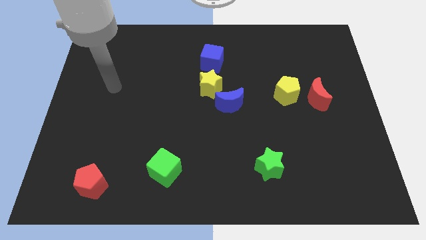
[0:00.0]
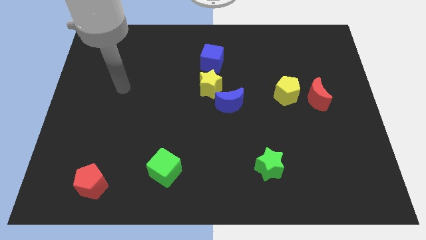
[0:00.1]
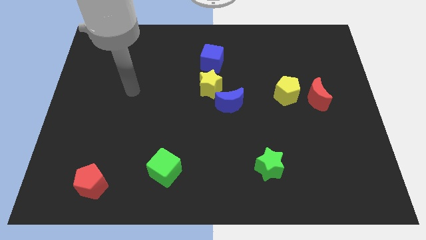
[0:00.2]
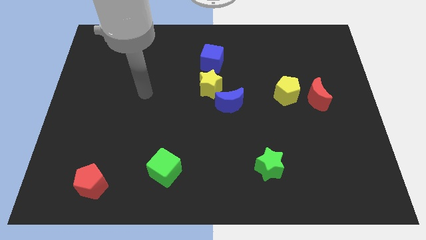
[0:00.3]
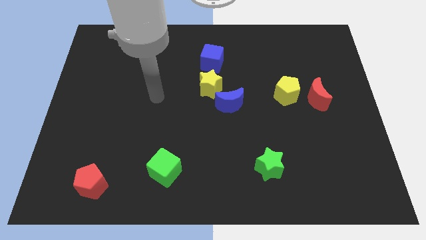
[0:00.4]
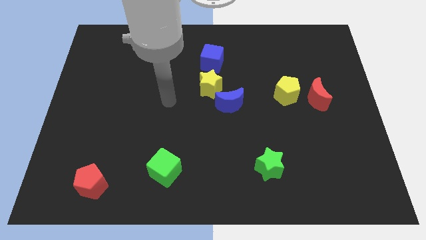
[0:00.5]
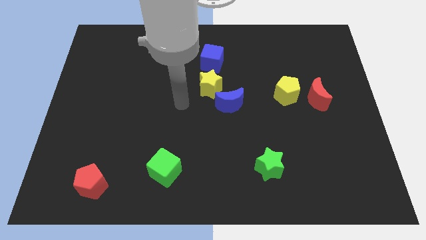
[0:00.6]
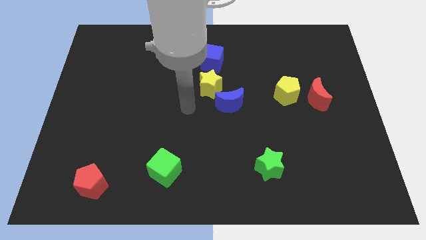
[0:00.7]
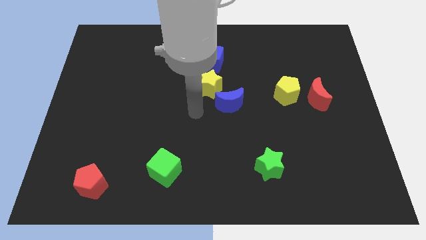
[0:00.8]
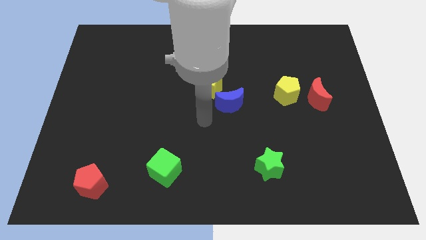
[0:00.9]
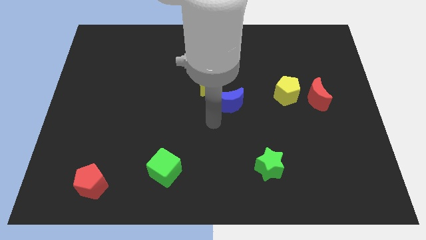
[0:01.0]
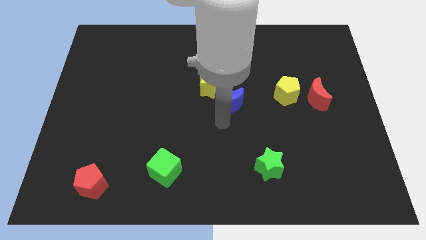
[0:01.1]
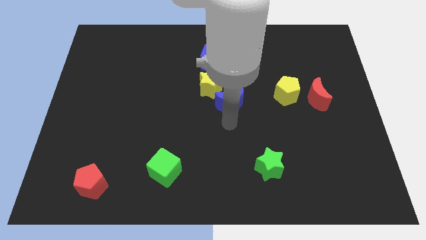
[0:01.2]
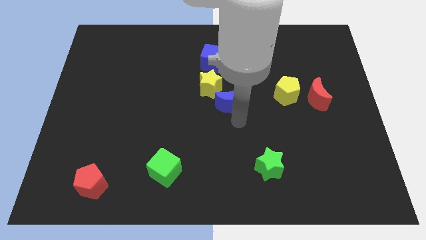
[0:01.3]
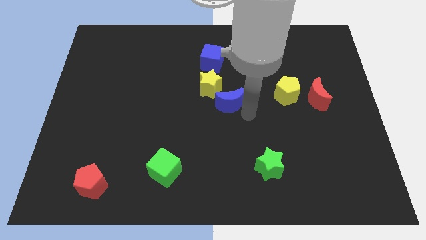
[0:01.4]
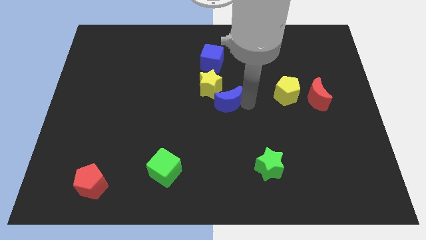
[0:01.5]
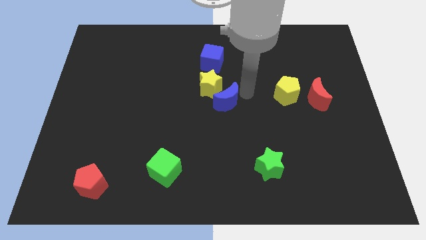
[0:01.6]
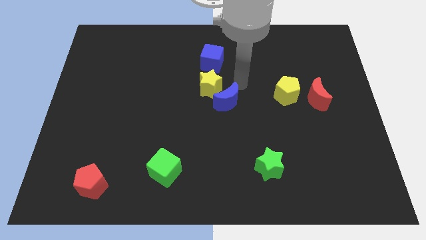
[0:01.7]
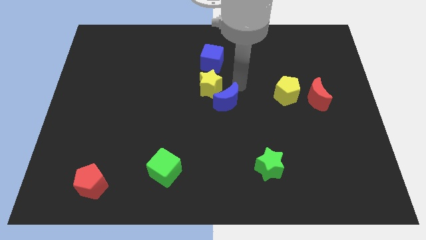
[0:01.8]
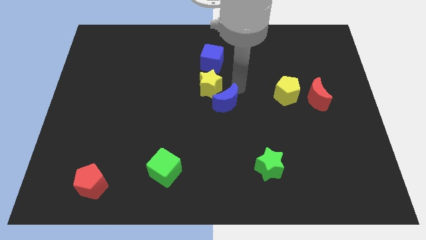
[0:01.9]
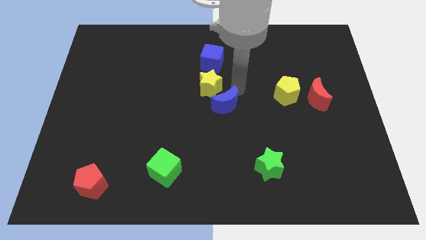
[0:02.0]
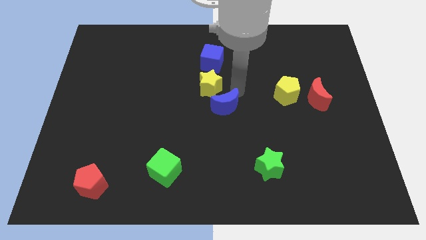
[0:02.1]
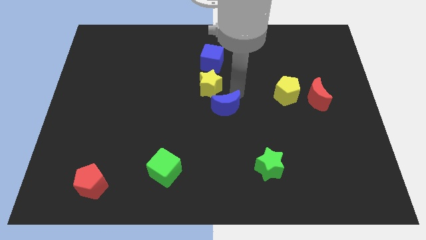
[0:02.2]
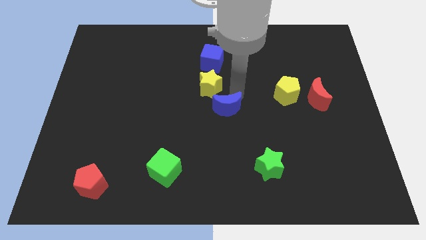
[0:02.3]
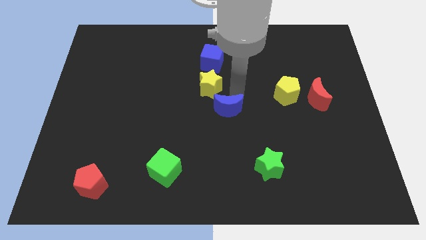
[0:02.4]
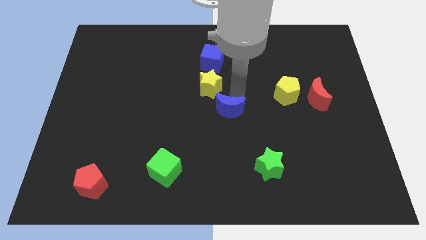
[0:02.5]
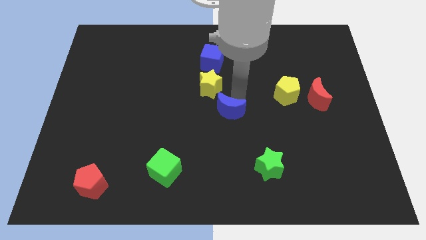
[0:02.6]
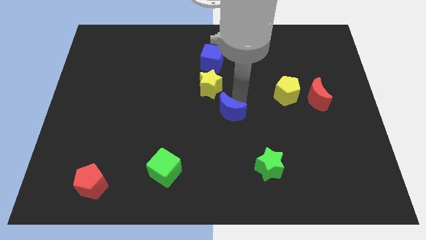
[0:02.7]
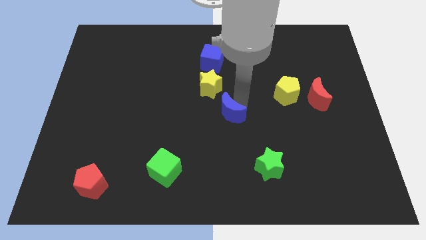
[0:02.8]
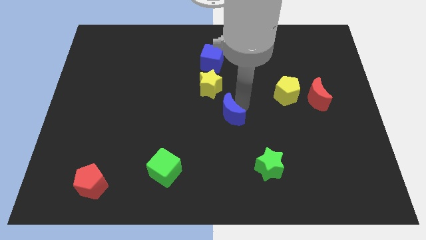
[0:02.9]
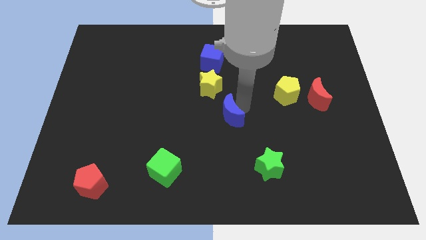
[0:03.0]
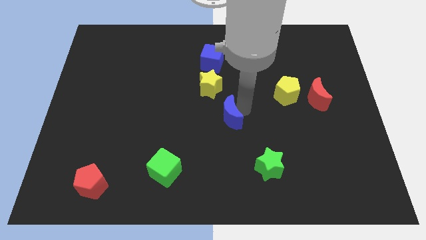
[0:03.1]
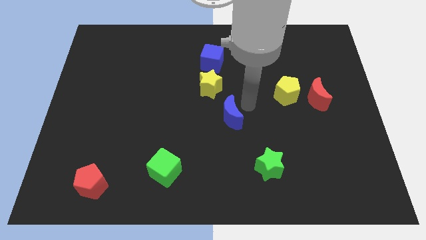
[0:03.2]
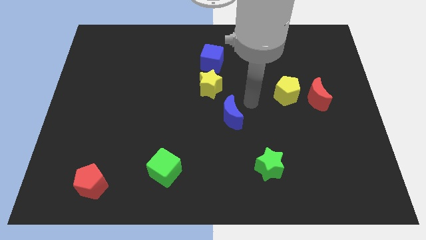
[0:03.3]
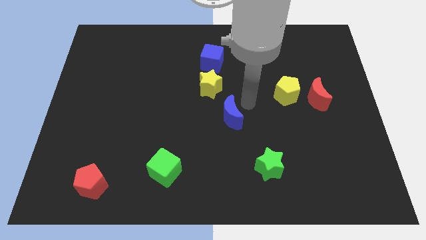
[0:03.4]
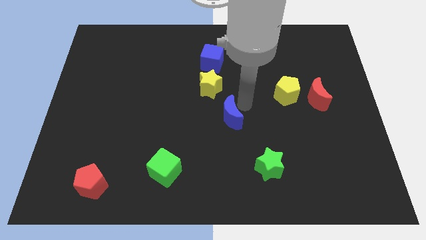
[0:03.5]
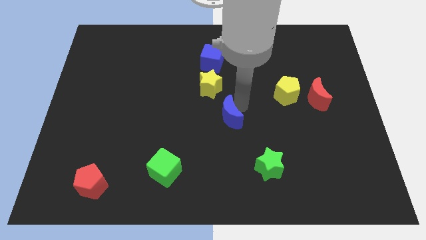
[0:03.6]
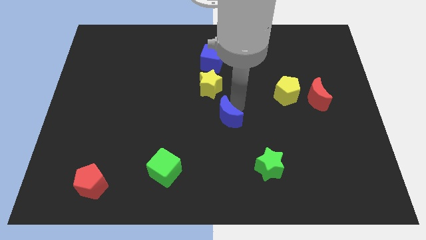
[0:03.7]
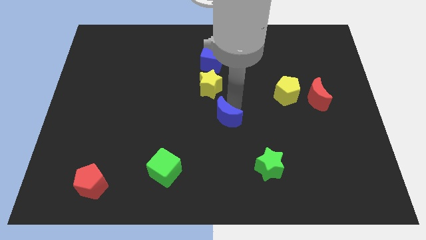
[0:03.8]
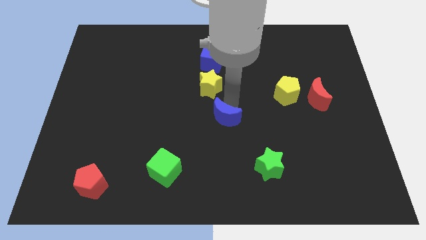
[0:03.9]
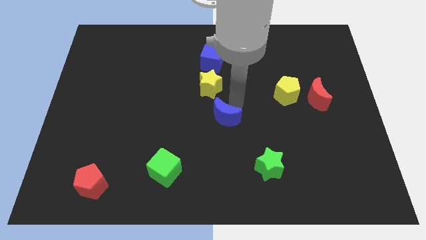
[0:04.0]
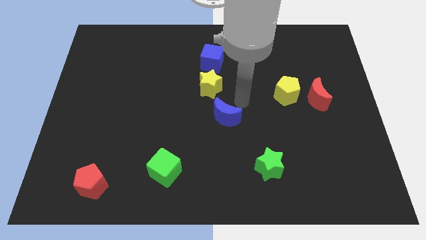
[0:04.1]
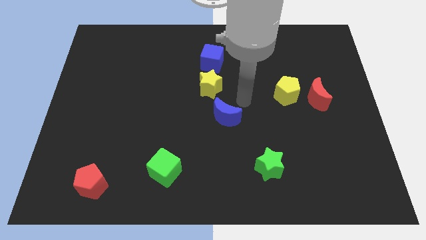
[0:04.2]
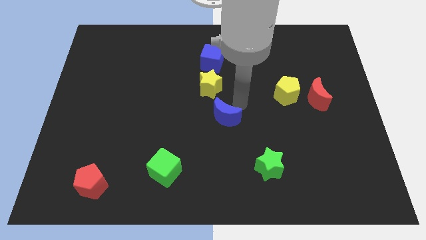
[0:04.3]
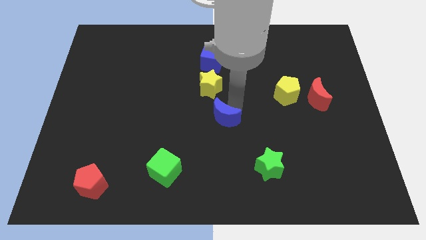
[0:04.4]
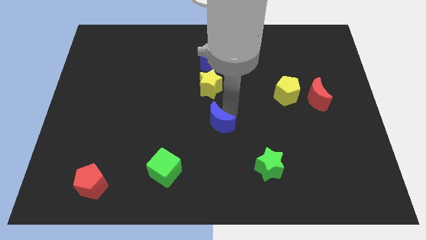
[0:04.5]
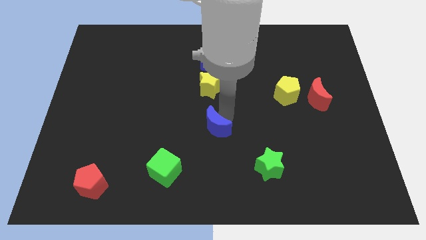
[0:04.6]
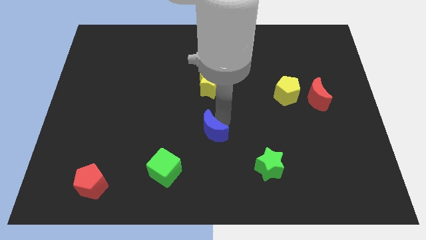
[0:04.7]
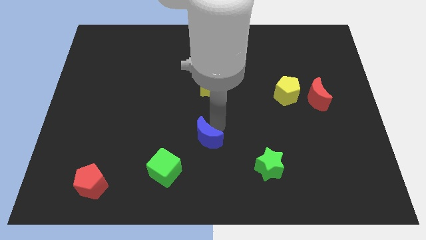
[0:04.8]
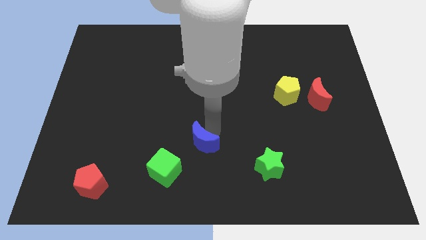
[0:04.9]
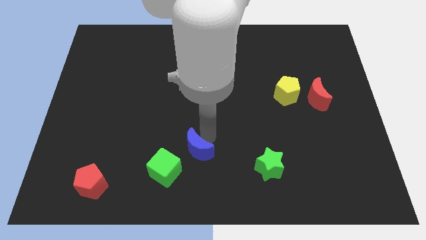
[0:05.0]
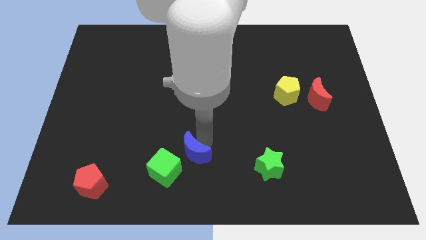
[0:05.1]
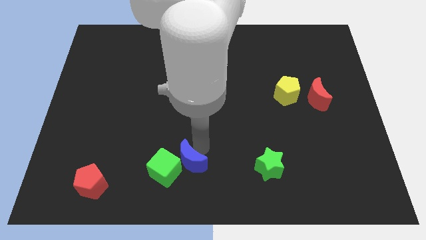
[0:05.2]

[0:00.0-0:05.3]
slide the blue moon close to the green cube

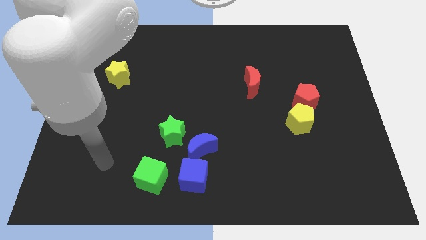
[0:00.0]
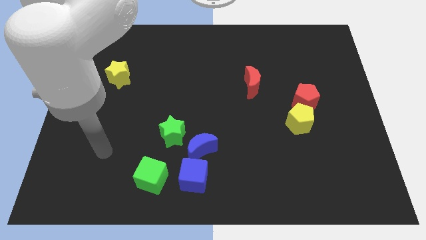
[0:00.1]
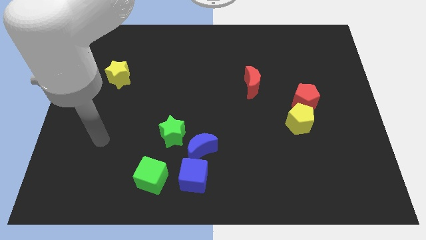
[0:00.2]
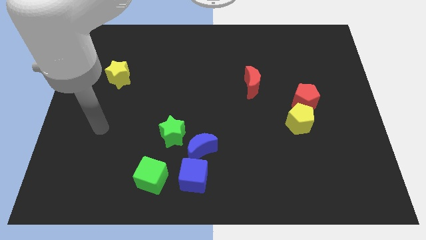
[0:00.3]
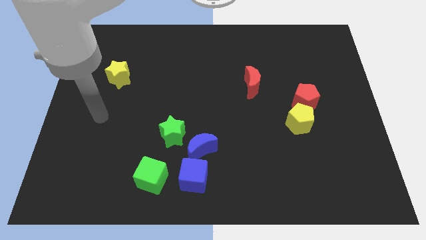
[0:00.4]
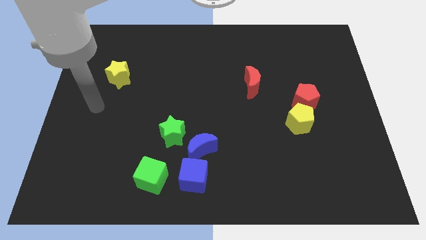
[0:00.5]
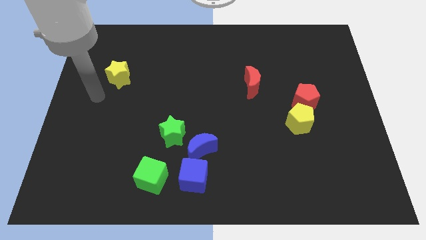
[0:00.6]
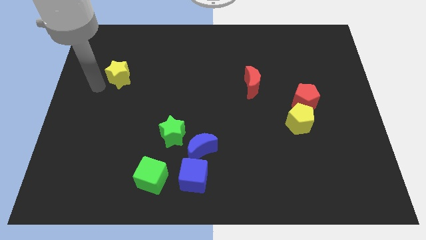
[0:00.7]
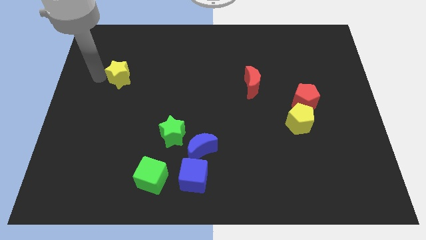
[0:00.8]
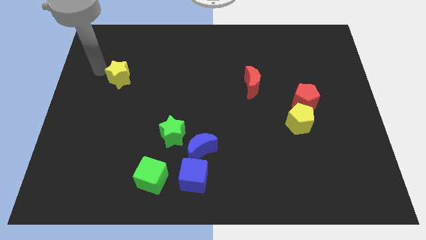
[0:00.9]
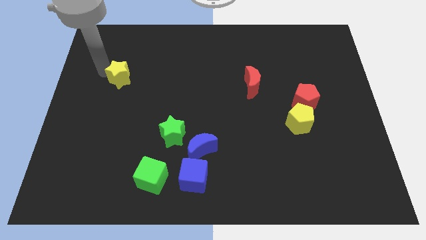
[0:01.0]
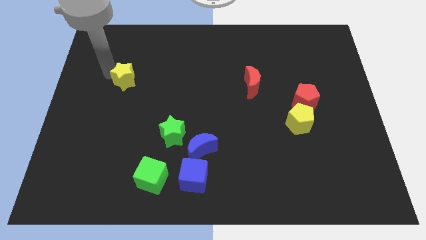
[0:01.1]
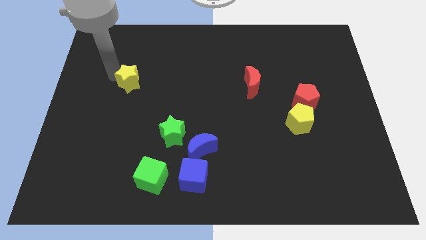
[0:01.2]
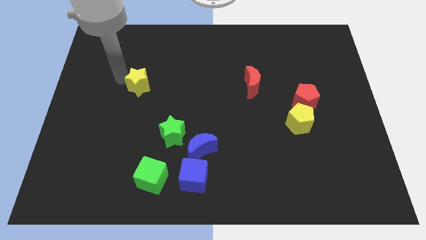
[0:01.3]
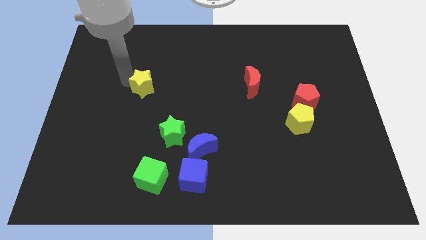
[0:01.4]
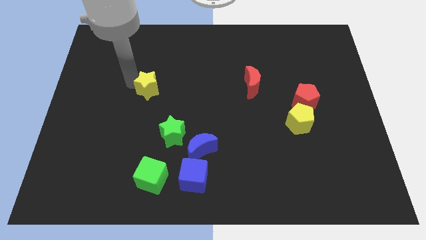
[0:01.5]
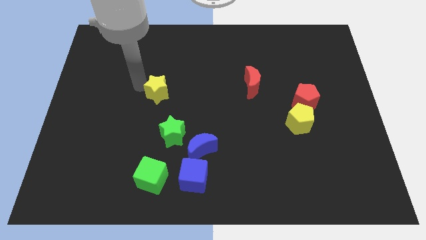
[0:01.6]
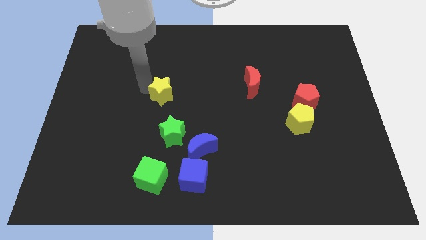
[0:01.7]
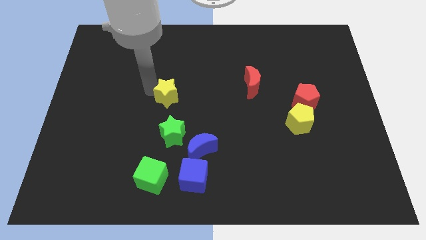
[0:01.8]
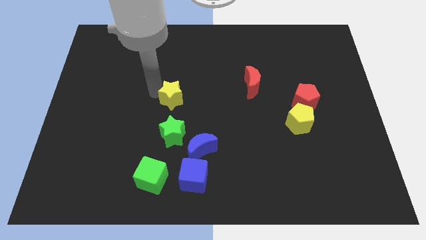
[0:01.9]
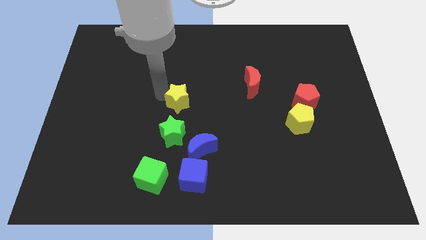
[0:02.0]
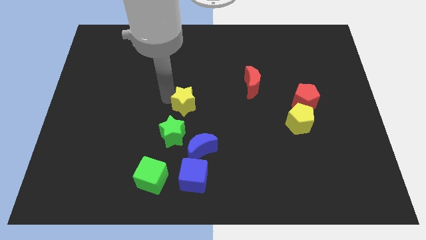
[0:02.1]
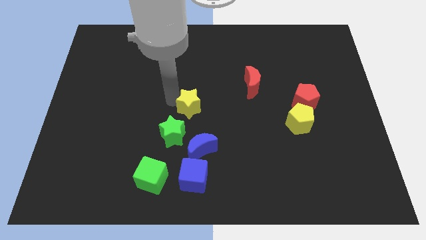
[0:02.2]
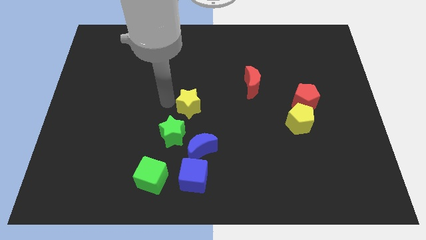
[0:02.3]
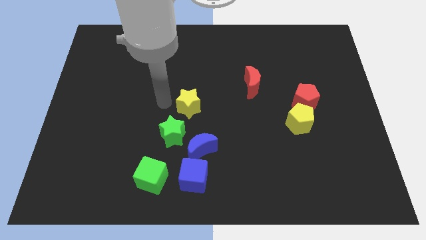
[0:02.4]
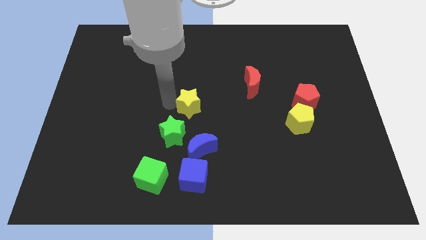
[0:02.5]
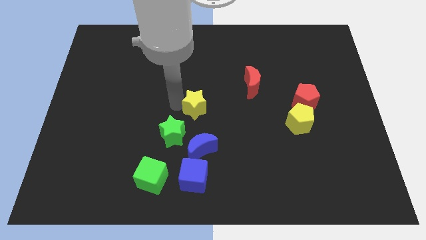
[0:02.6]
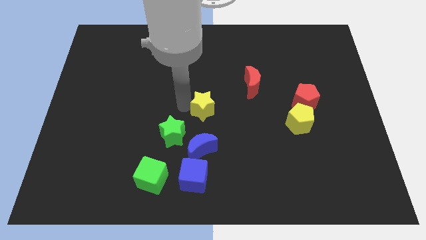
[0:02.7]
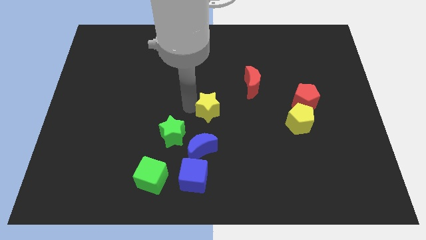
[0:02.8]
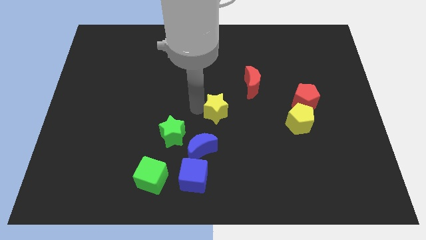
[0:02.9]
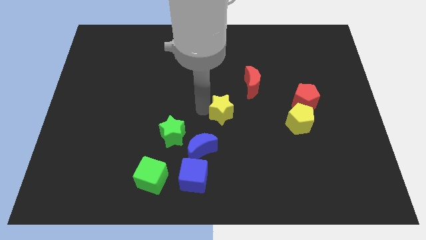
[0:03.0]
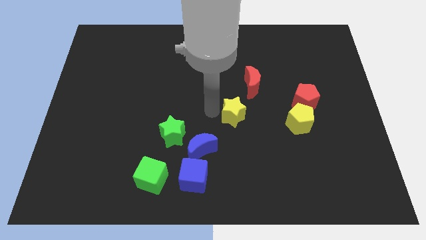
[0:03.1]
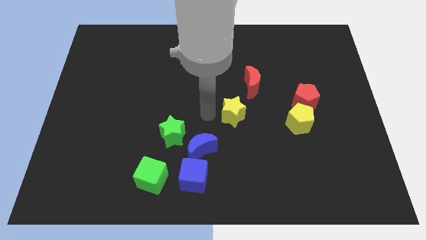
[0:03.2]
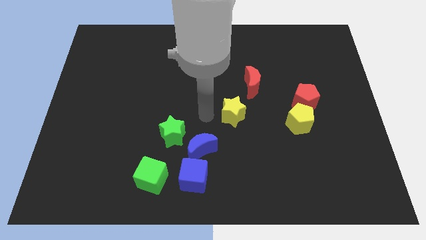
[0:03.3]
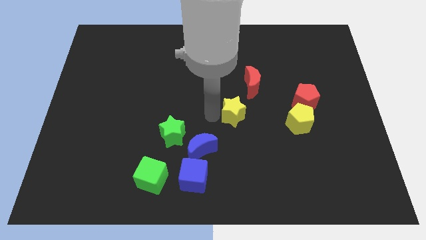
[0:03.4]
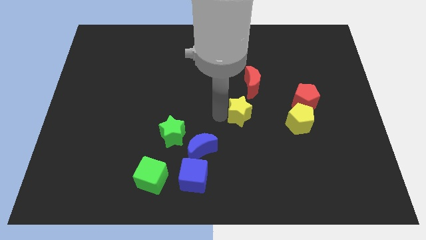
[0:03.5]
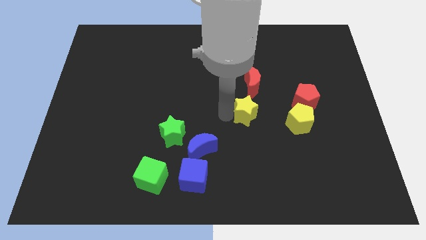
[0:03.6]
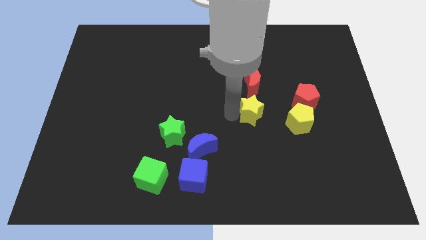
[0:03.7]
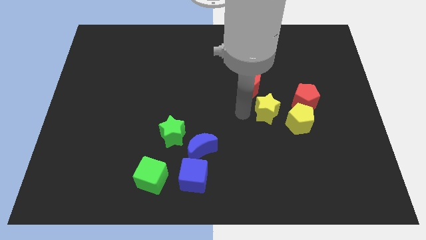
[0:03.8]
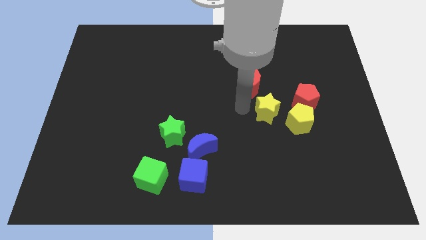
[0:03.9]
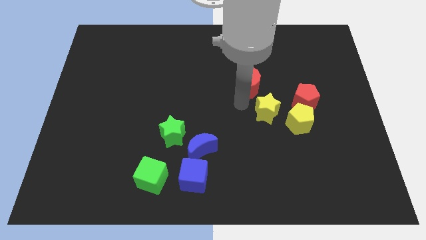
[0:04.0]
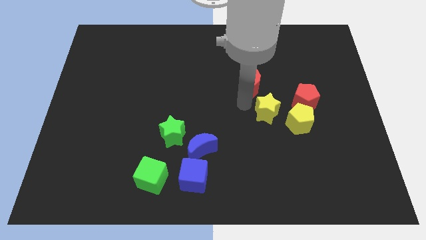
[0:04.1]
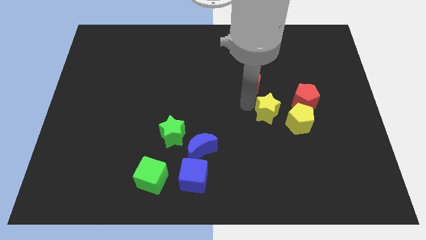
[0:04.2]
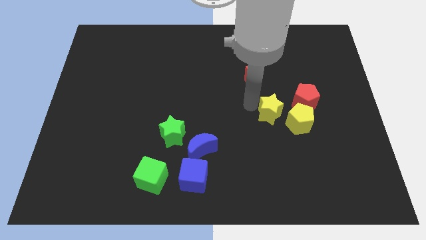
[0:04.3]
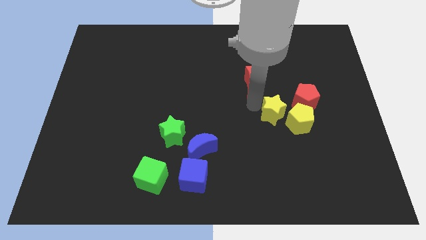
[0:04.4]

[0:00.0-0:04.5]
move the yellow star towards the yellow pentagon
